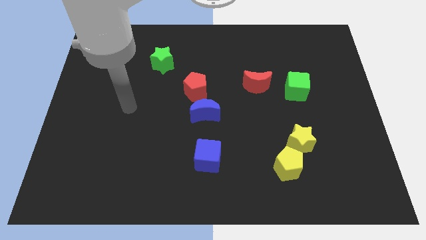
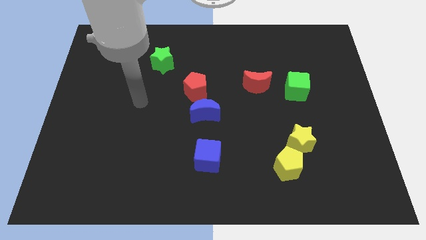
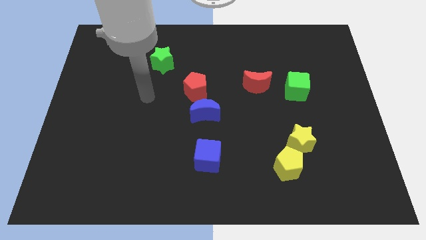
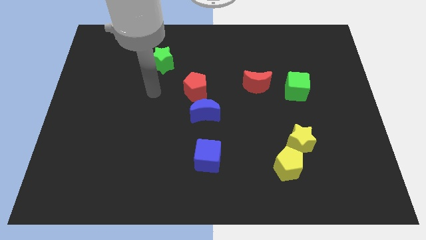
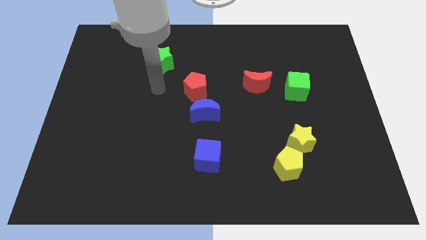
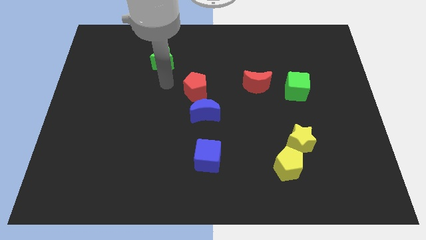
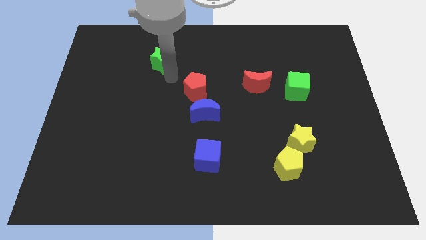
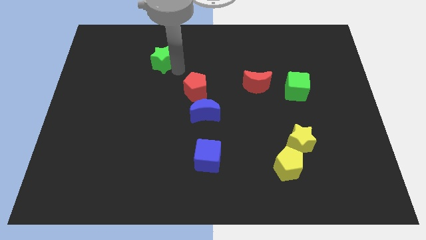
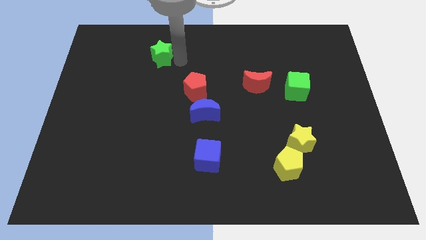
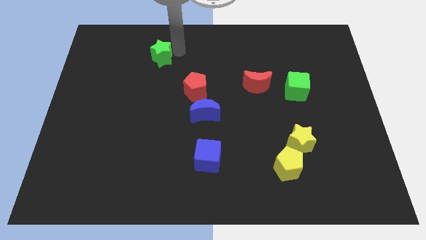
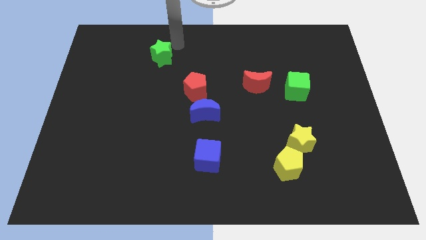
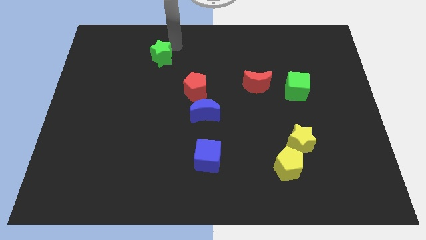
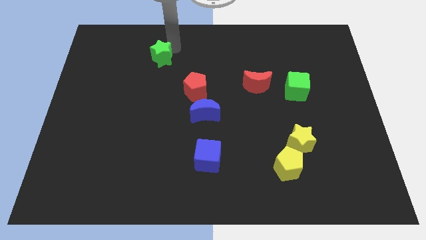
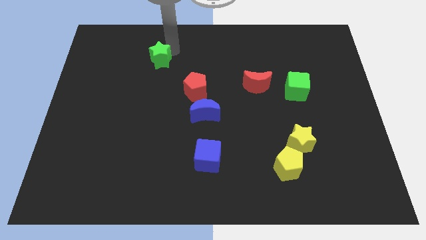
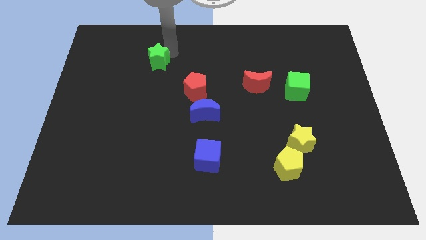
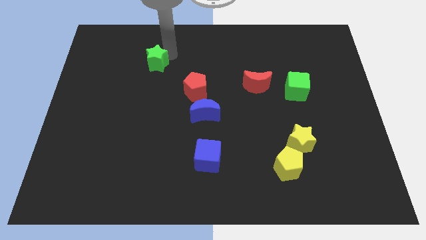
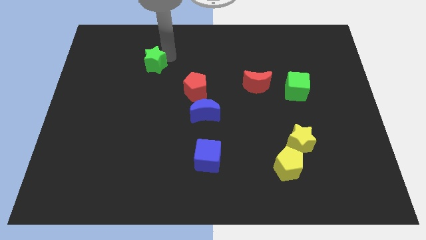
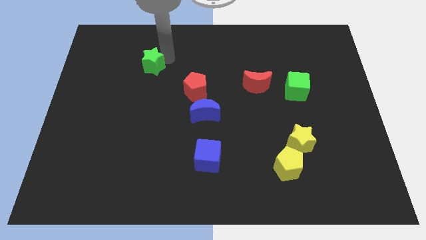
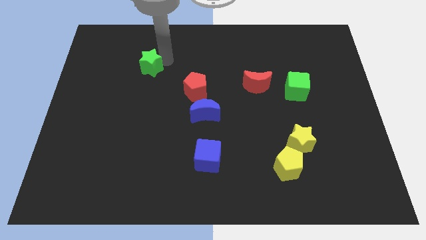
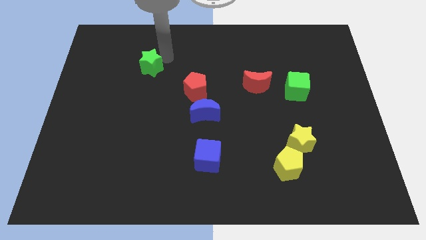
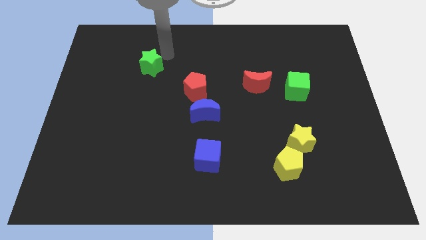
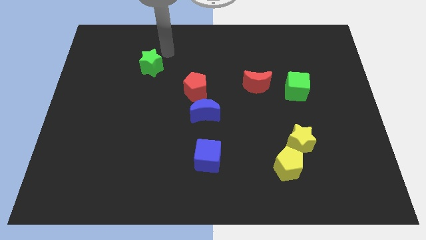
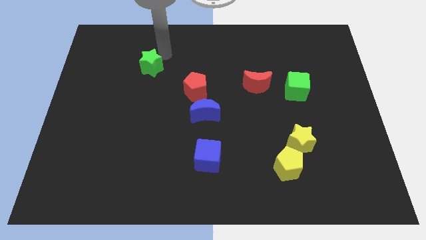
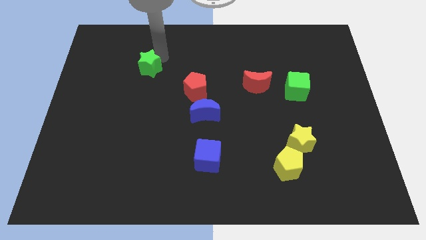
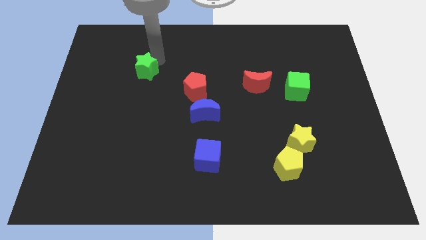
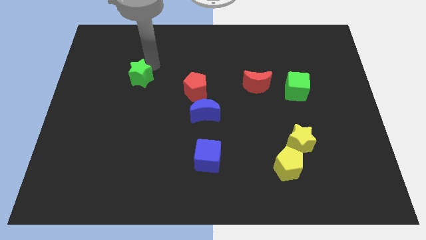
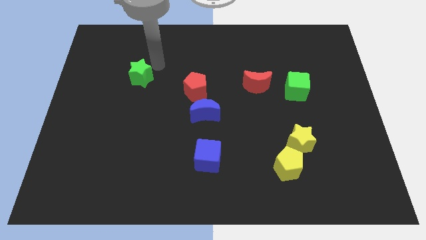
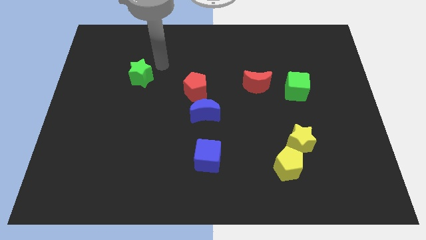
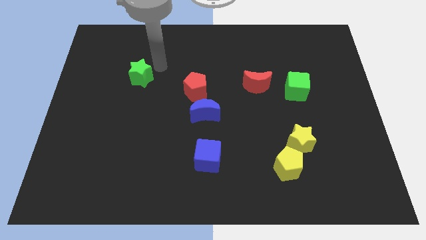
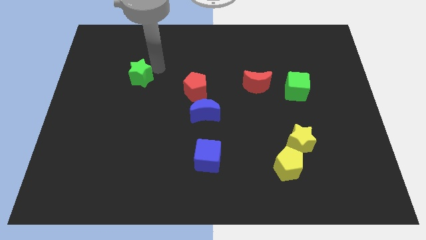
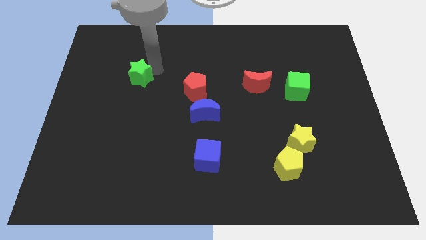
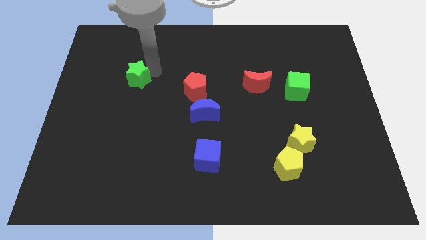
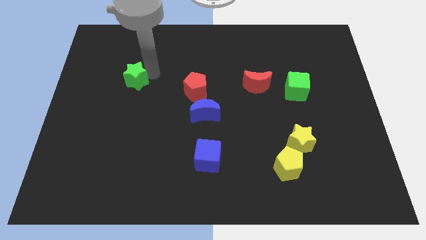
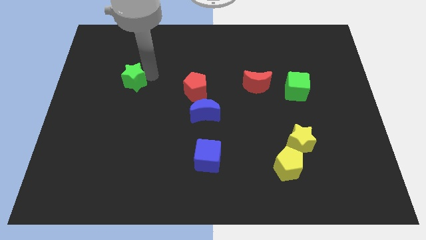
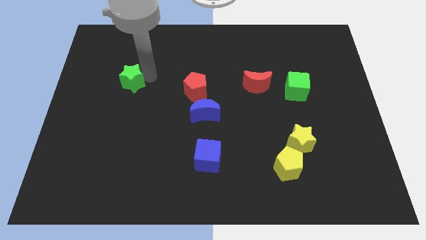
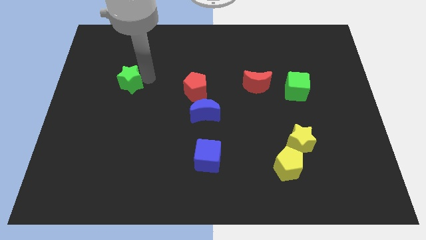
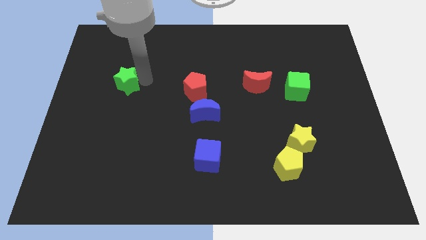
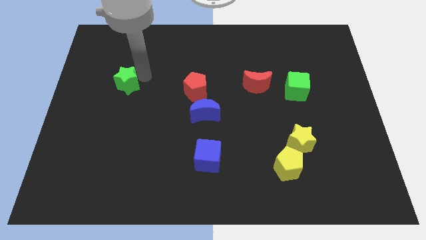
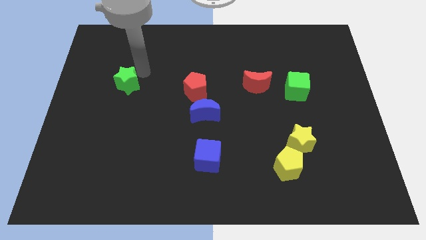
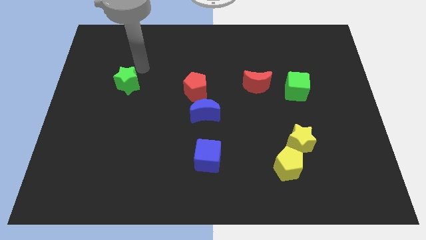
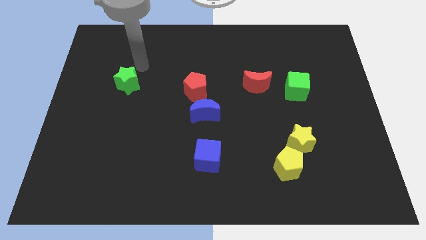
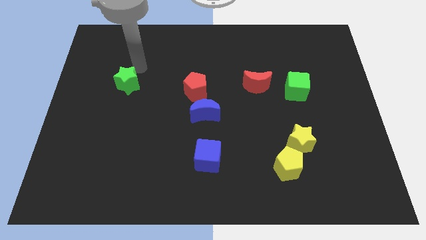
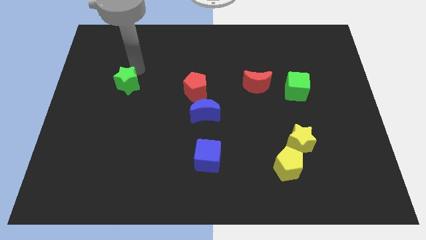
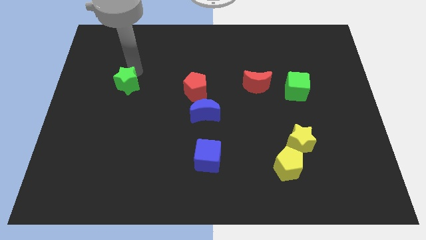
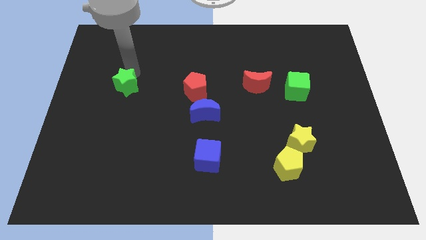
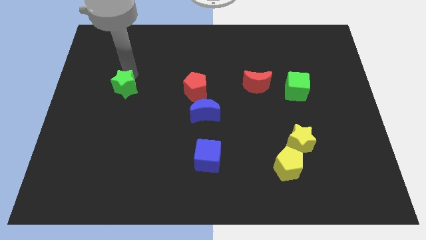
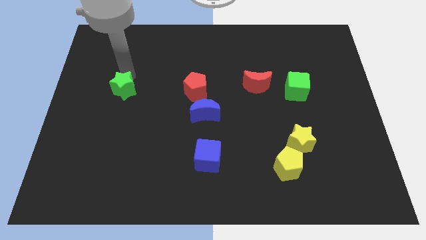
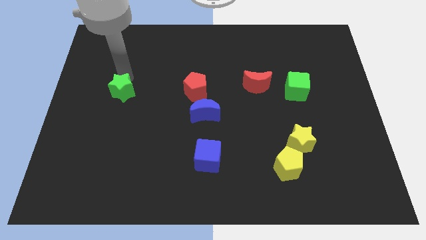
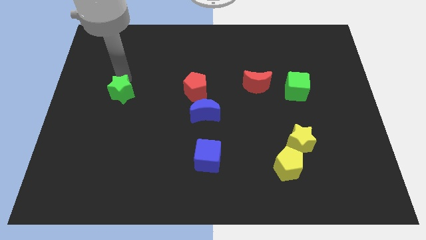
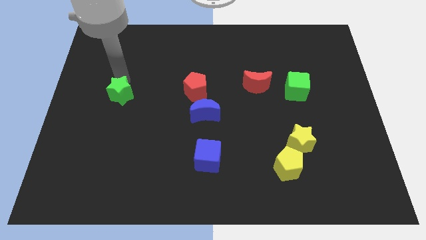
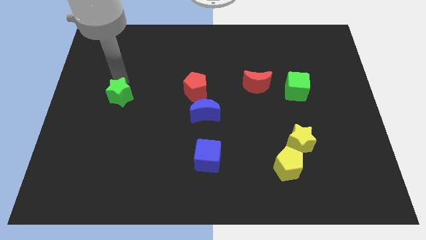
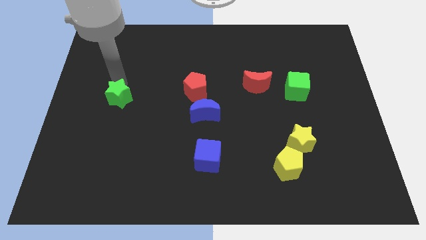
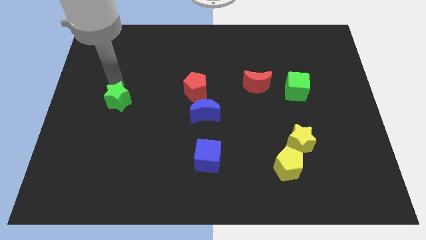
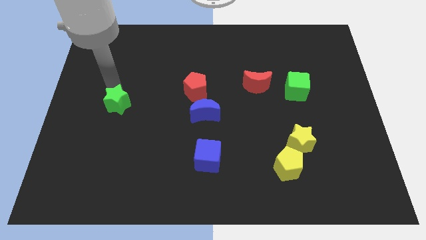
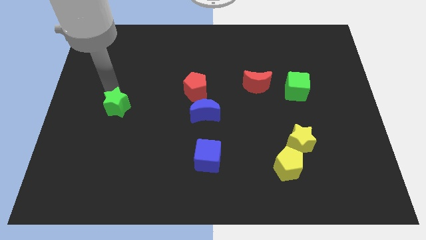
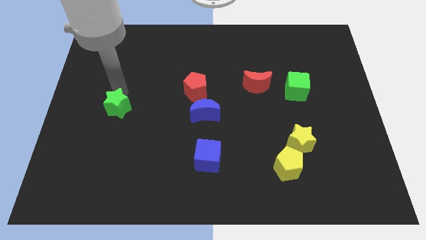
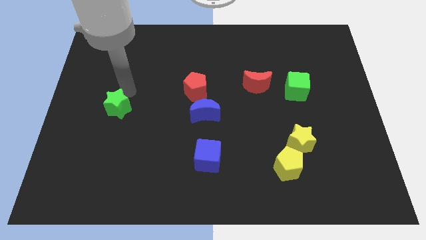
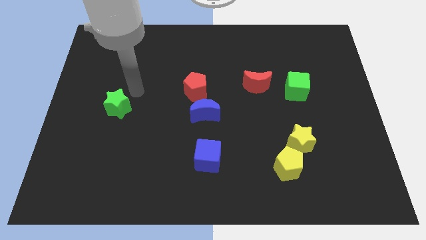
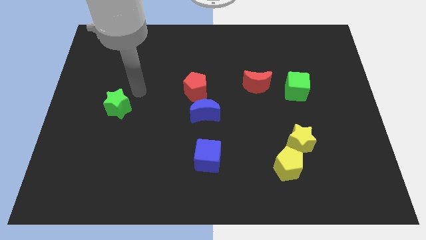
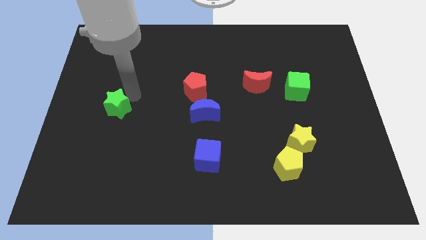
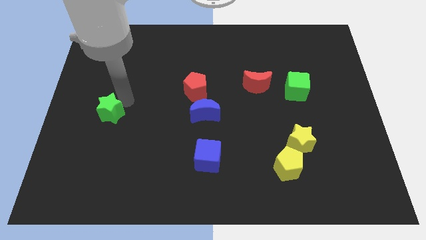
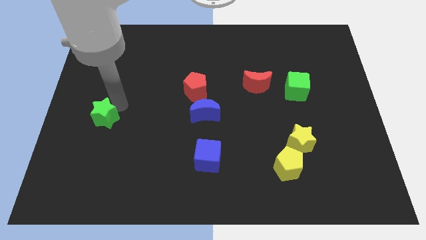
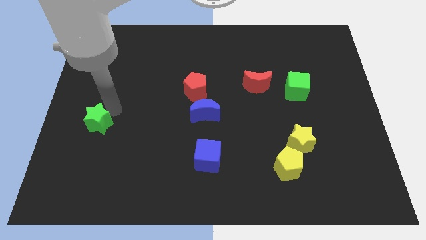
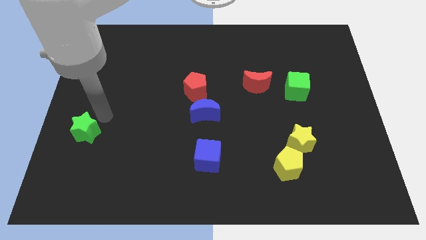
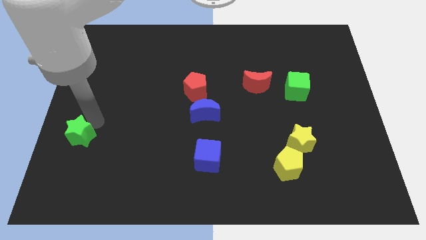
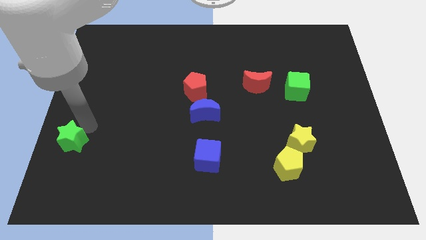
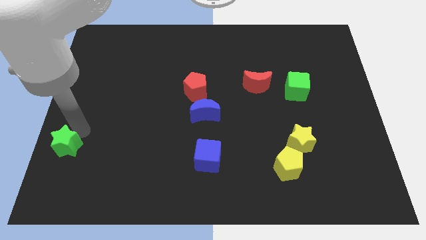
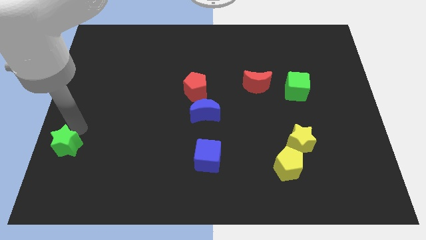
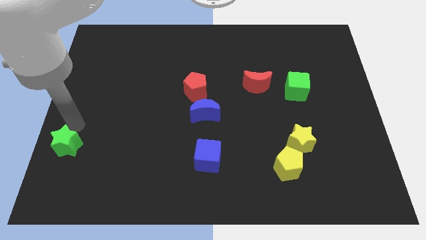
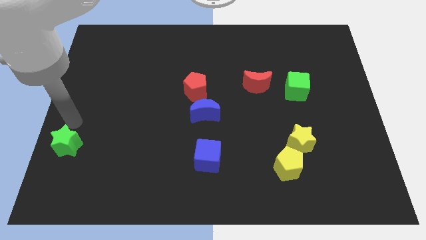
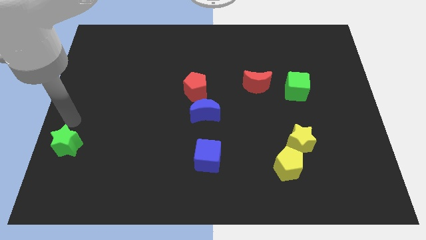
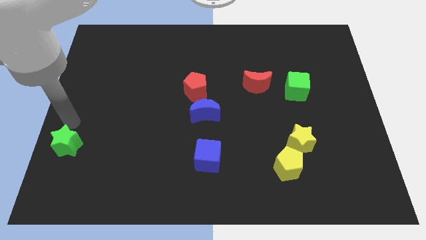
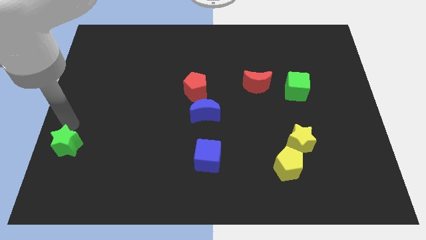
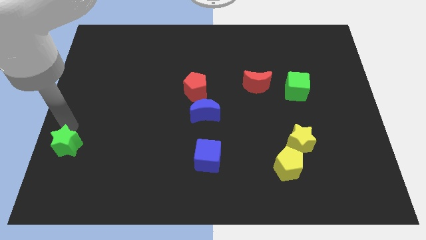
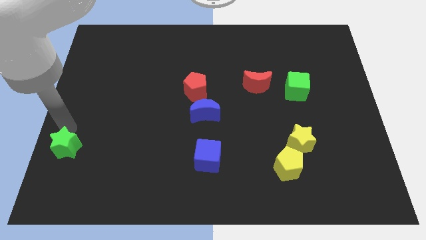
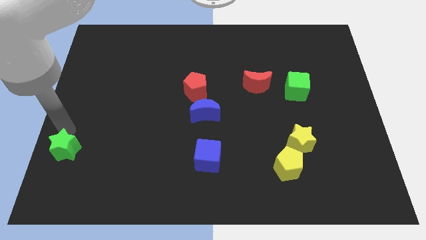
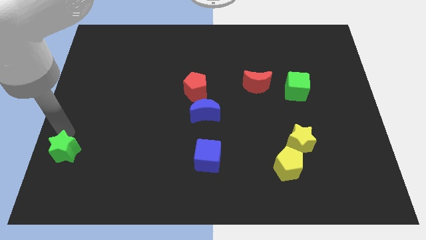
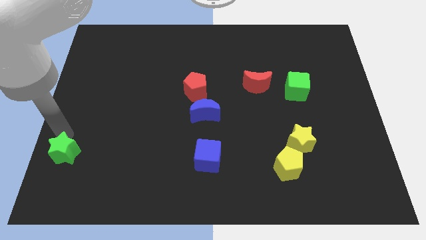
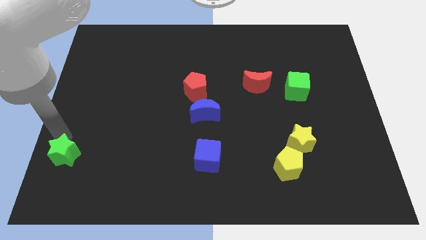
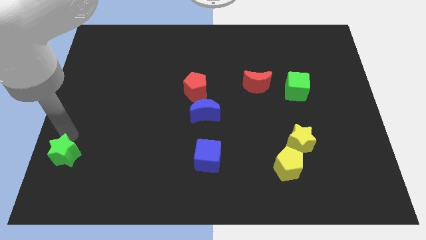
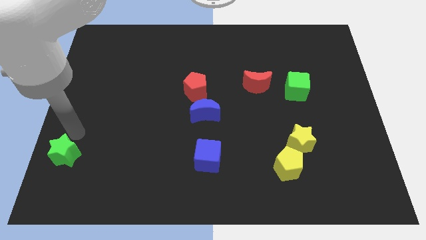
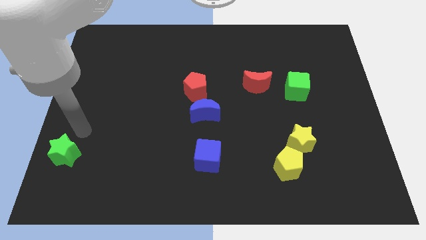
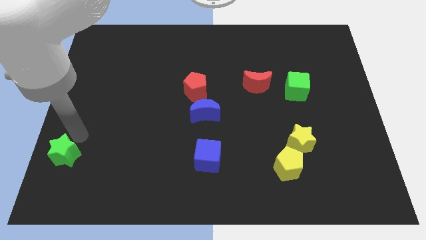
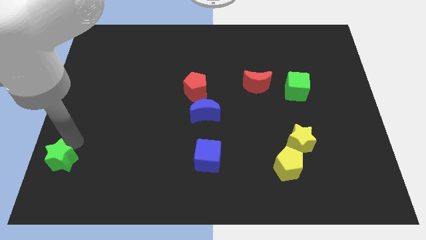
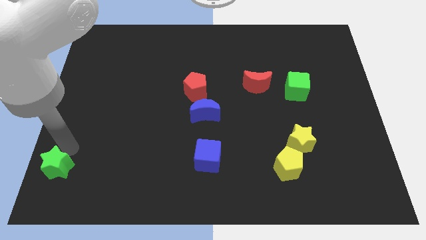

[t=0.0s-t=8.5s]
move the green star to the bottom left corner
